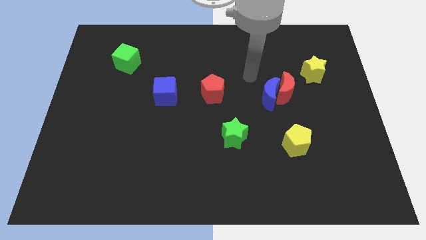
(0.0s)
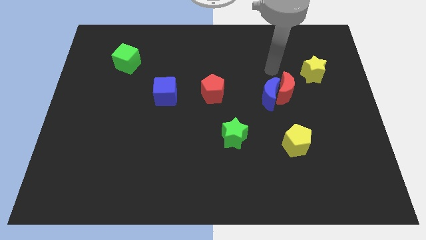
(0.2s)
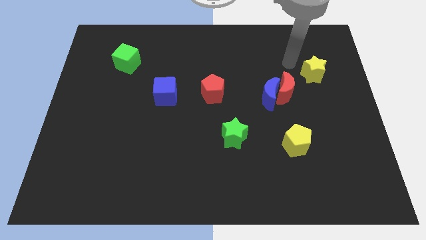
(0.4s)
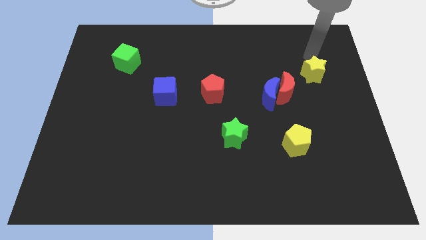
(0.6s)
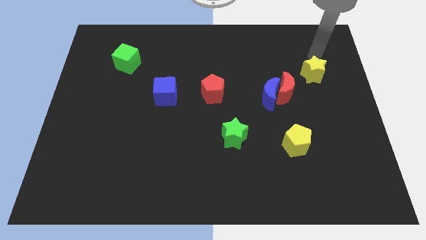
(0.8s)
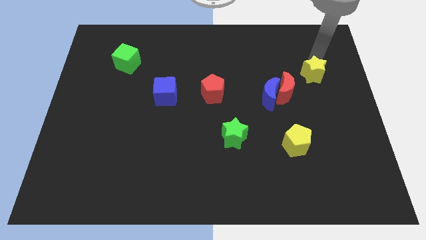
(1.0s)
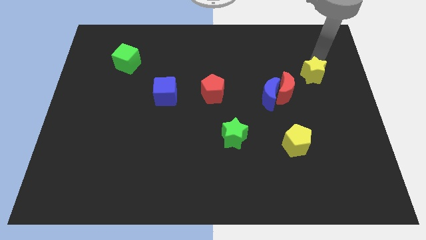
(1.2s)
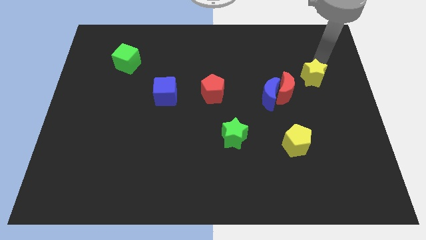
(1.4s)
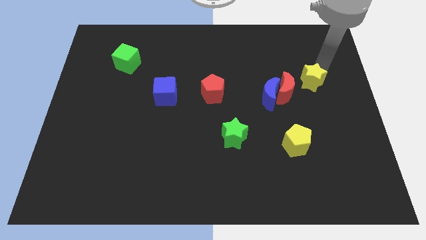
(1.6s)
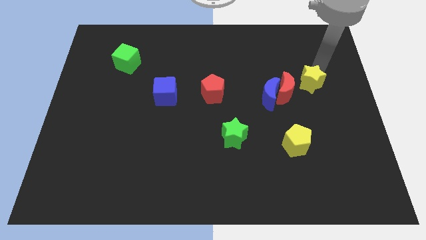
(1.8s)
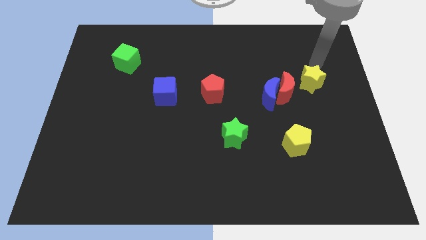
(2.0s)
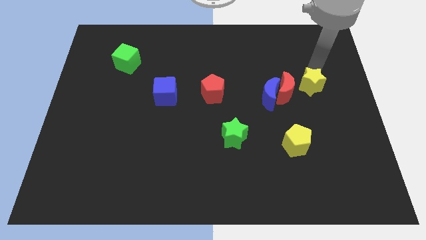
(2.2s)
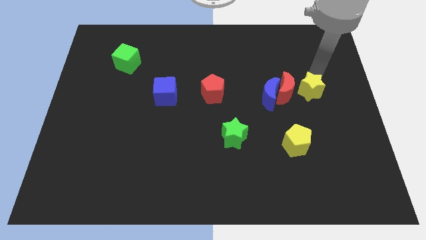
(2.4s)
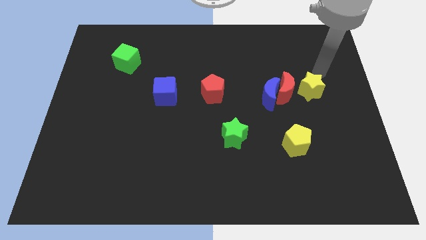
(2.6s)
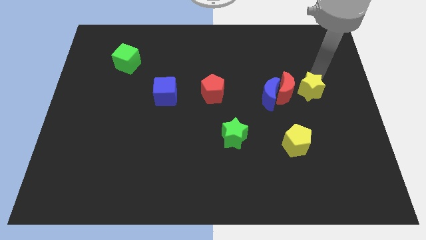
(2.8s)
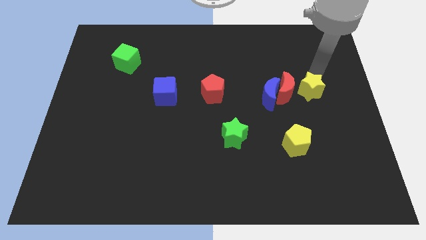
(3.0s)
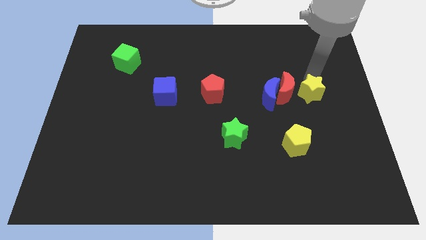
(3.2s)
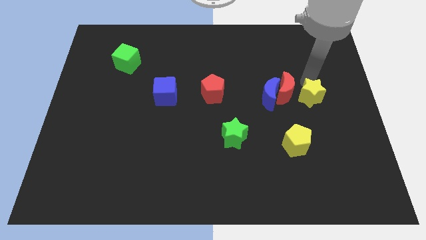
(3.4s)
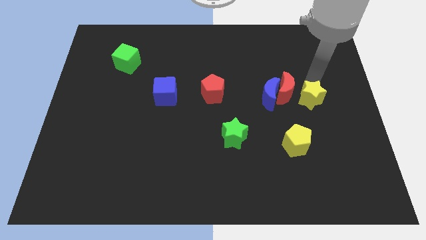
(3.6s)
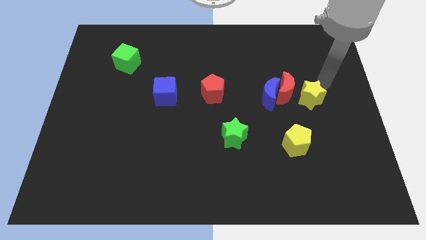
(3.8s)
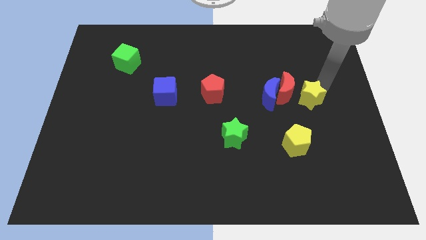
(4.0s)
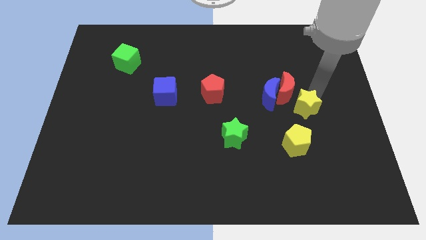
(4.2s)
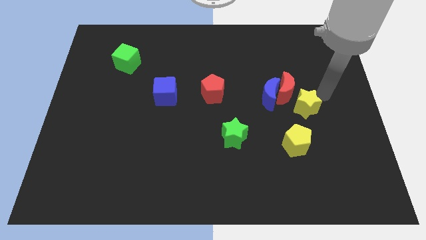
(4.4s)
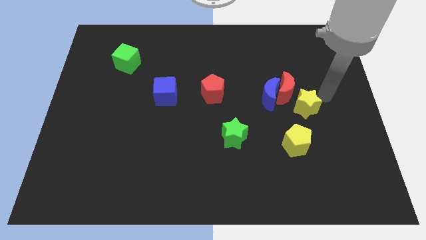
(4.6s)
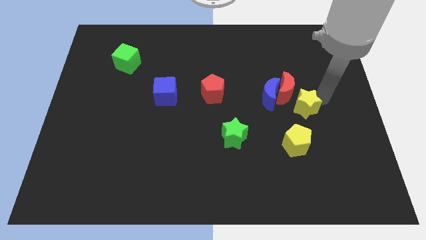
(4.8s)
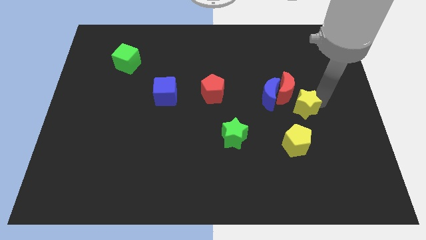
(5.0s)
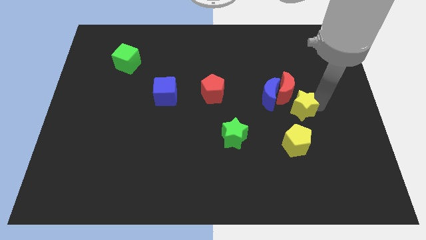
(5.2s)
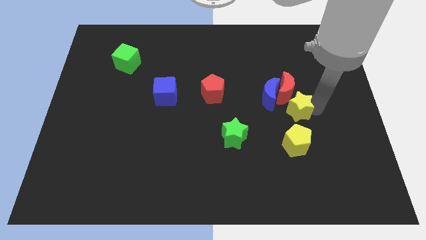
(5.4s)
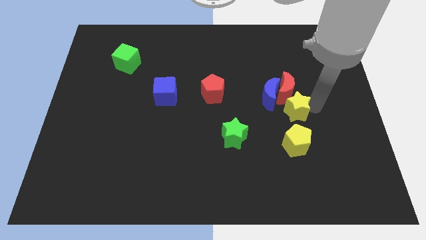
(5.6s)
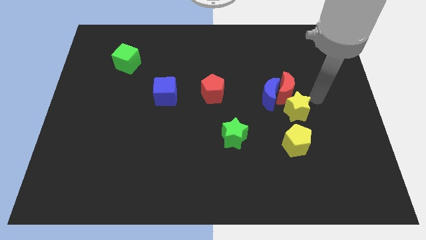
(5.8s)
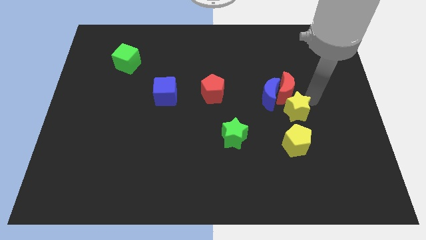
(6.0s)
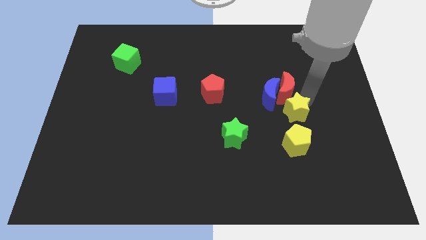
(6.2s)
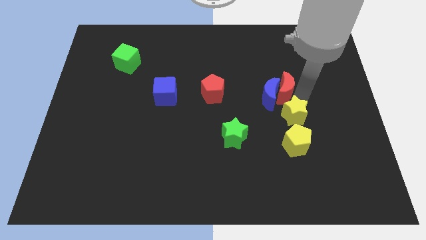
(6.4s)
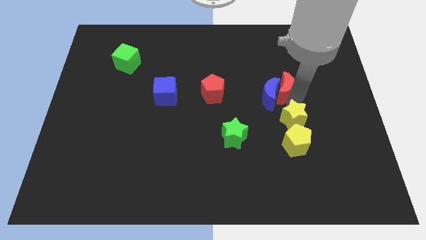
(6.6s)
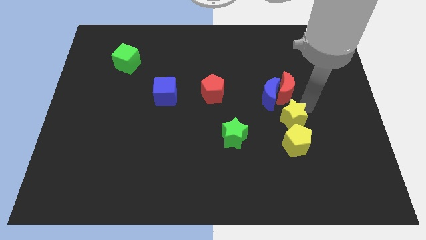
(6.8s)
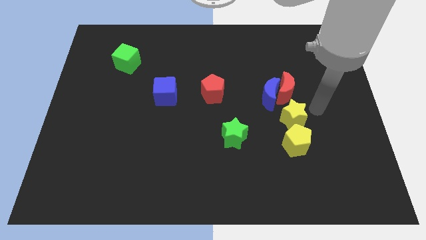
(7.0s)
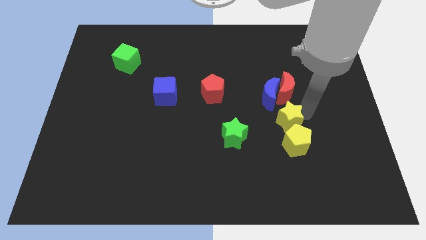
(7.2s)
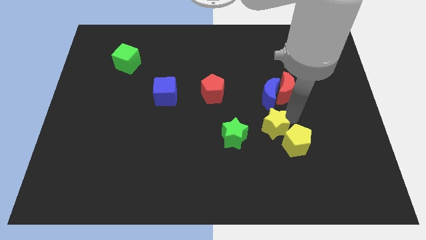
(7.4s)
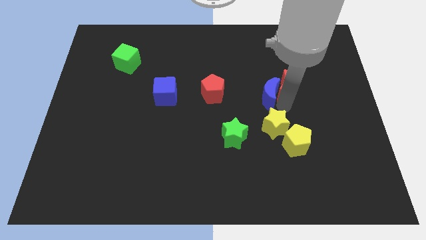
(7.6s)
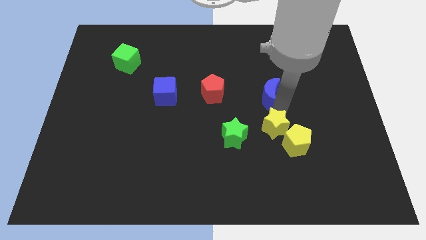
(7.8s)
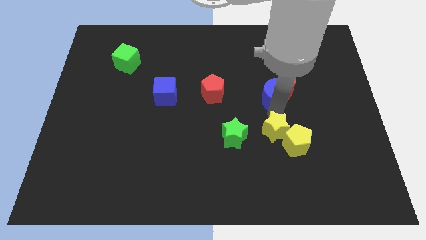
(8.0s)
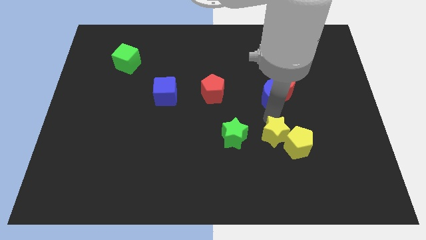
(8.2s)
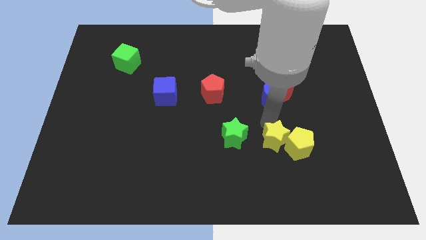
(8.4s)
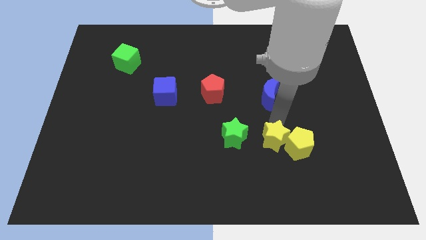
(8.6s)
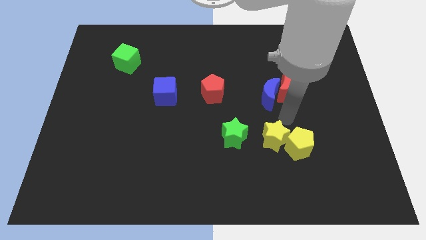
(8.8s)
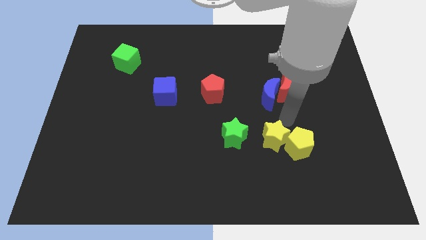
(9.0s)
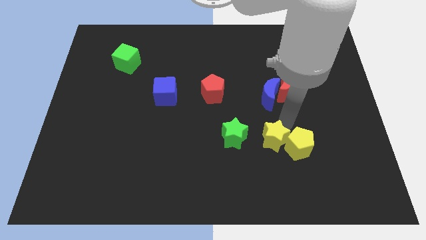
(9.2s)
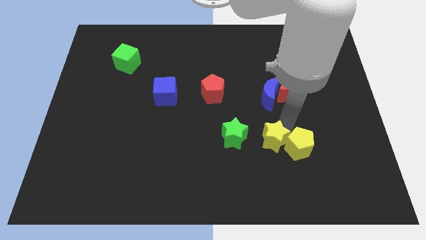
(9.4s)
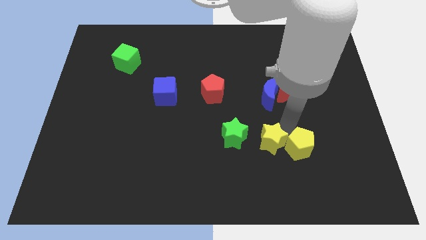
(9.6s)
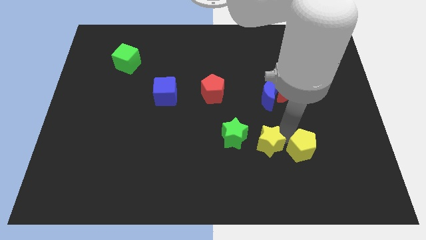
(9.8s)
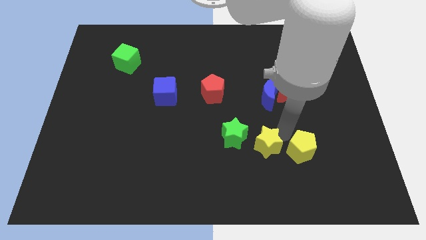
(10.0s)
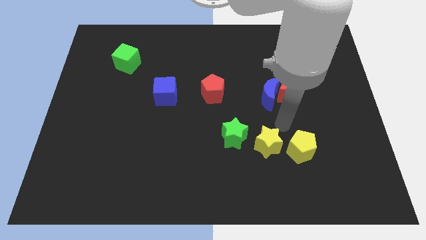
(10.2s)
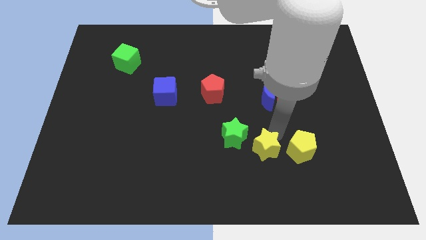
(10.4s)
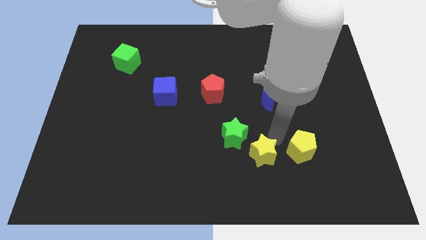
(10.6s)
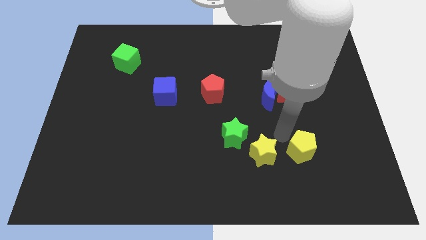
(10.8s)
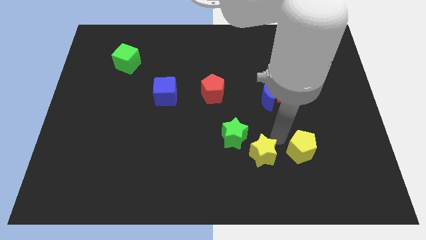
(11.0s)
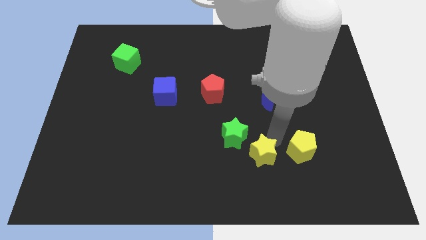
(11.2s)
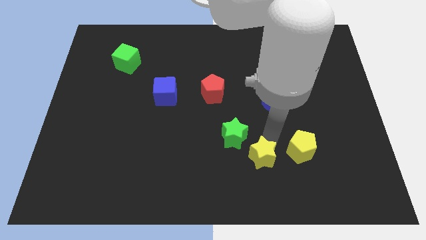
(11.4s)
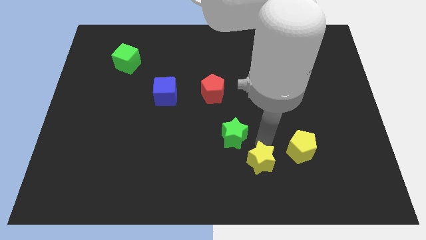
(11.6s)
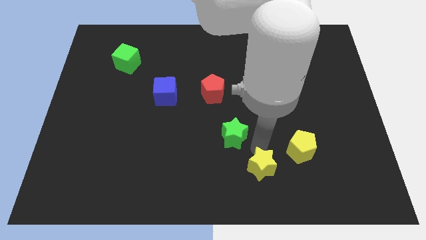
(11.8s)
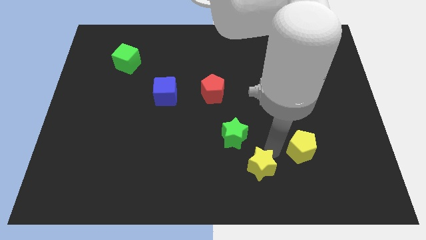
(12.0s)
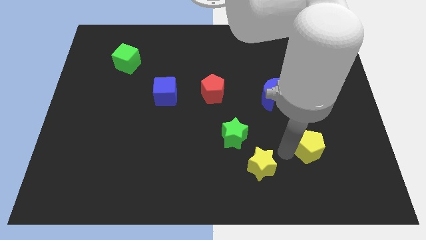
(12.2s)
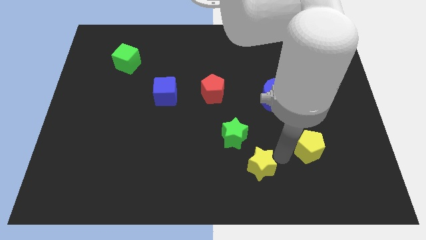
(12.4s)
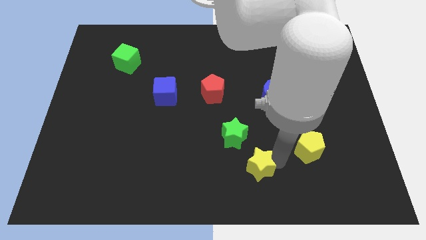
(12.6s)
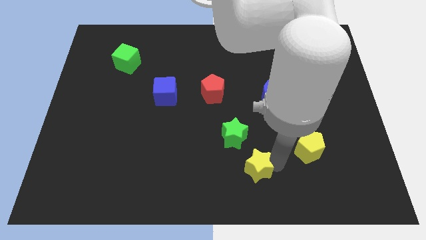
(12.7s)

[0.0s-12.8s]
slide the yellow star to the bottom

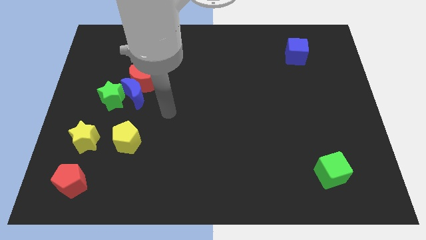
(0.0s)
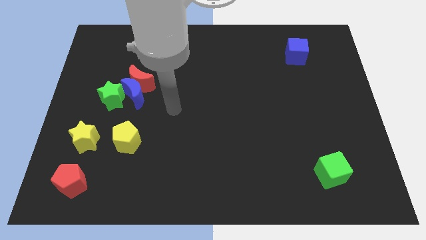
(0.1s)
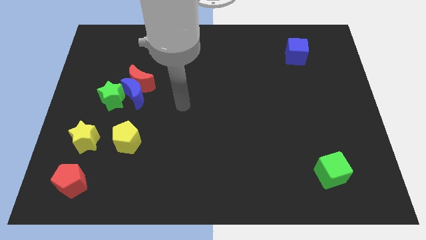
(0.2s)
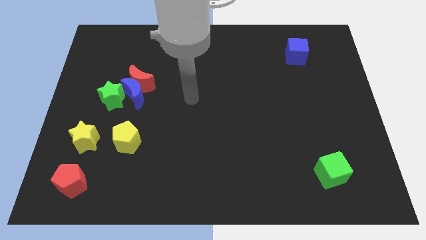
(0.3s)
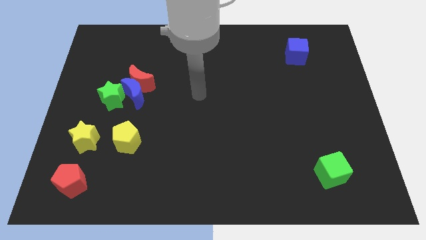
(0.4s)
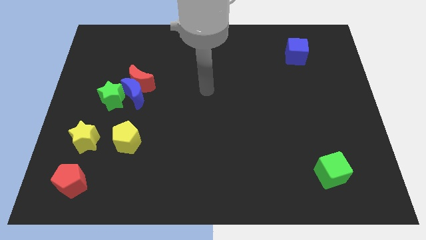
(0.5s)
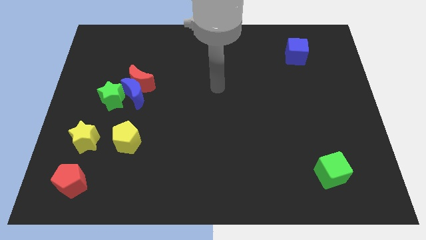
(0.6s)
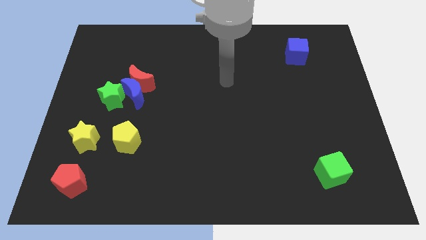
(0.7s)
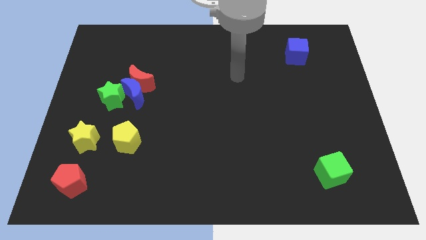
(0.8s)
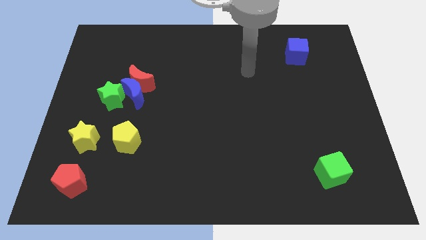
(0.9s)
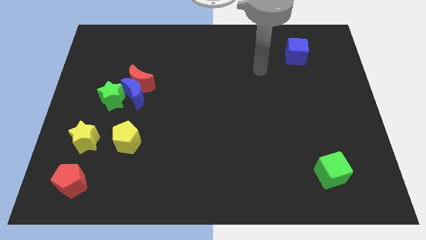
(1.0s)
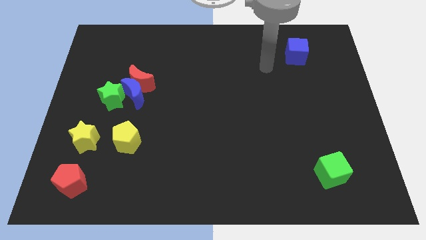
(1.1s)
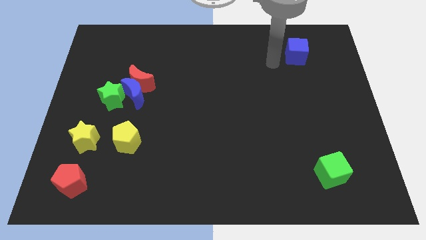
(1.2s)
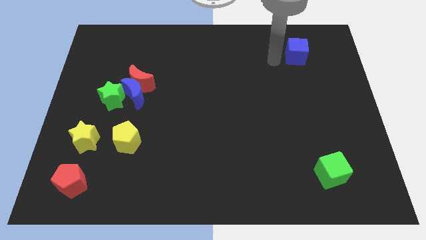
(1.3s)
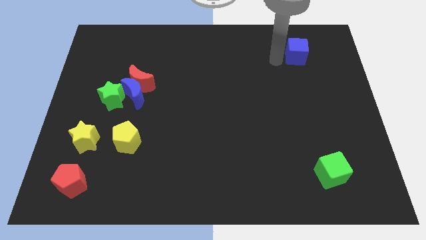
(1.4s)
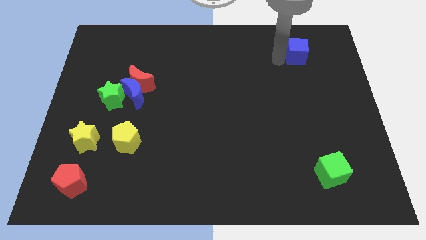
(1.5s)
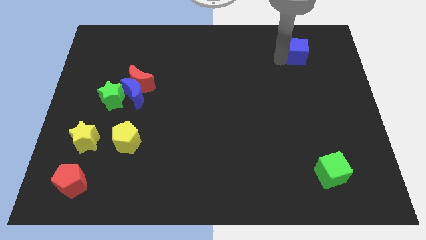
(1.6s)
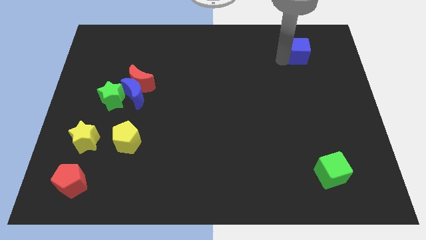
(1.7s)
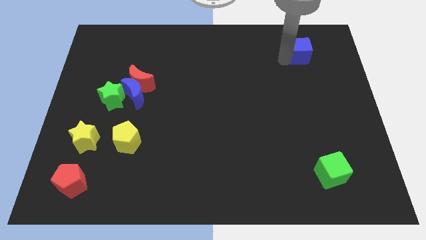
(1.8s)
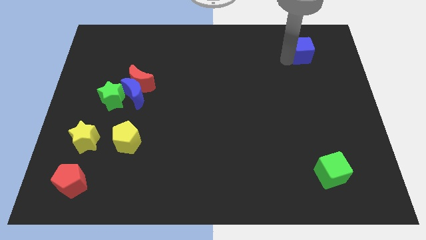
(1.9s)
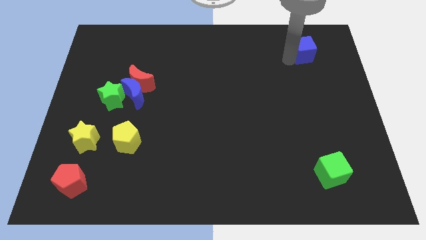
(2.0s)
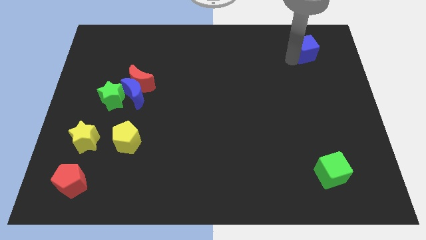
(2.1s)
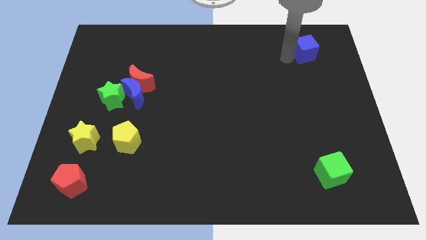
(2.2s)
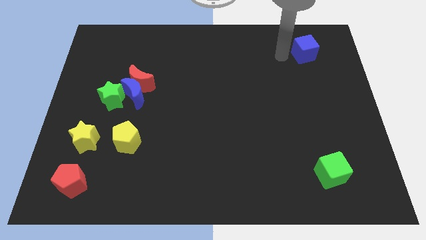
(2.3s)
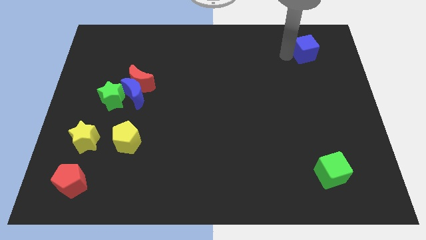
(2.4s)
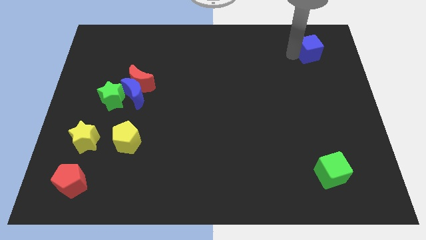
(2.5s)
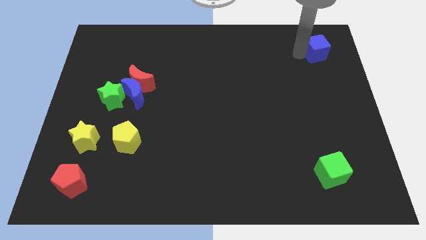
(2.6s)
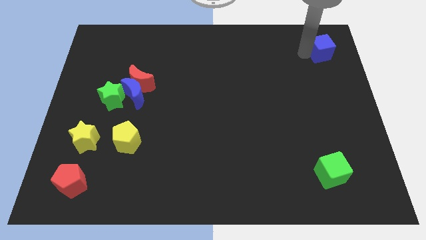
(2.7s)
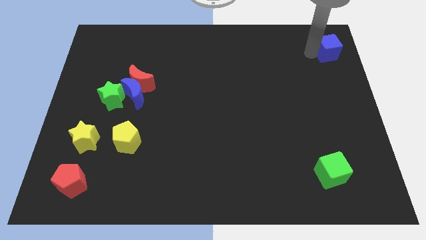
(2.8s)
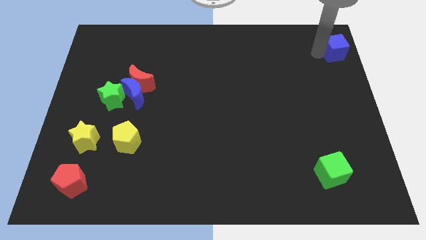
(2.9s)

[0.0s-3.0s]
move the blue cube to the top right corner
